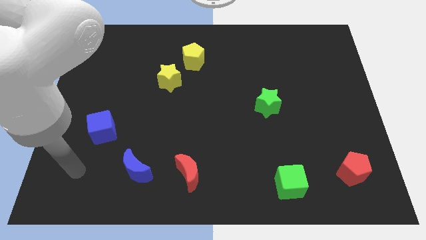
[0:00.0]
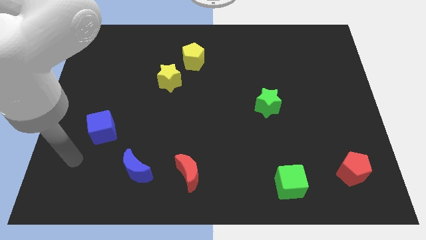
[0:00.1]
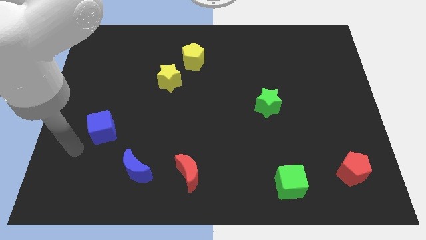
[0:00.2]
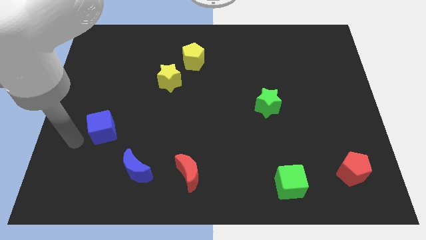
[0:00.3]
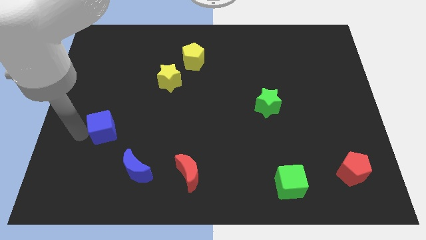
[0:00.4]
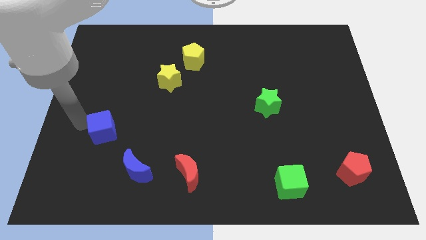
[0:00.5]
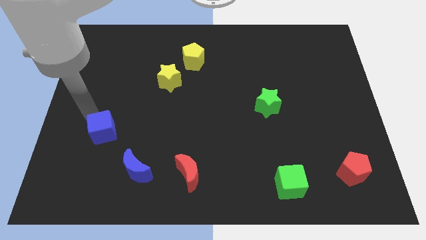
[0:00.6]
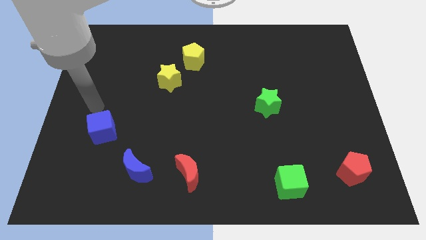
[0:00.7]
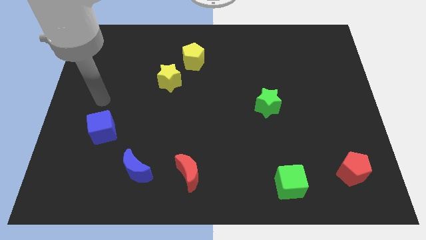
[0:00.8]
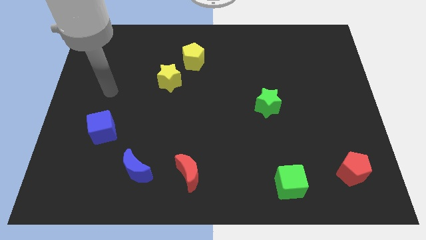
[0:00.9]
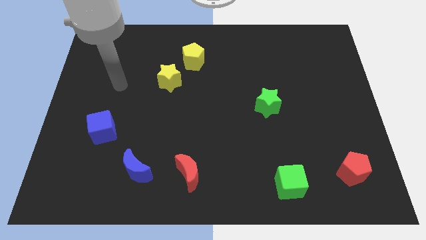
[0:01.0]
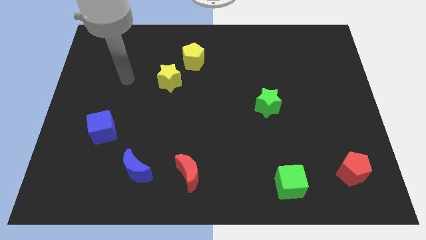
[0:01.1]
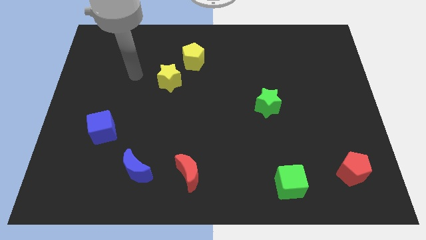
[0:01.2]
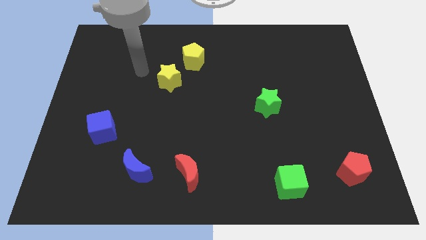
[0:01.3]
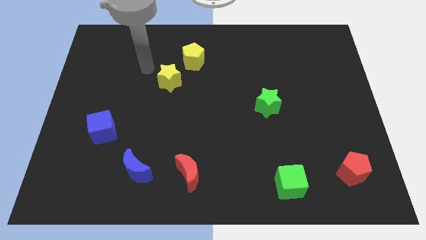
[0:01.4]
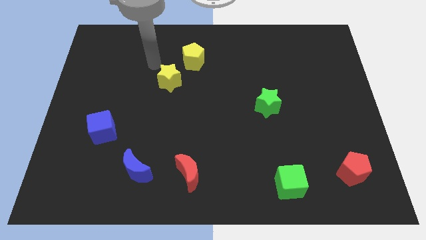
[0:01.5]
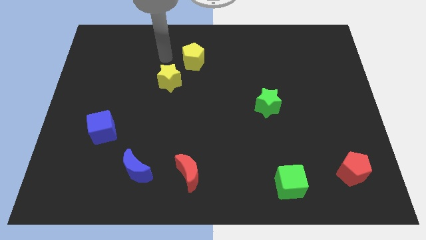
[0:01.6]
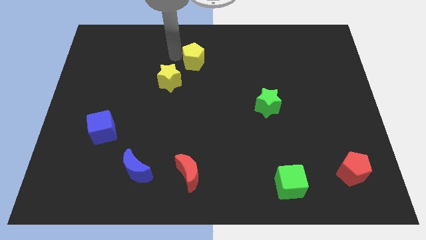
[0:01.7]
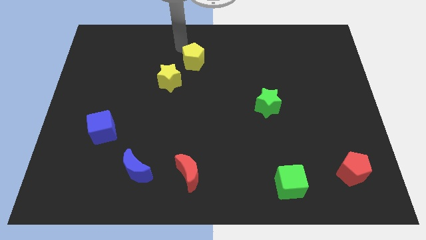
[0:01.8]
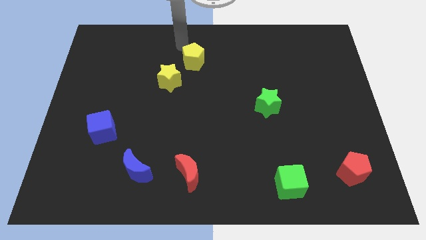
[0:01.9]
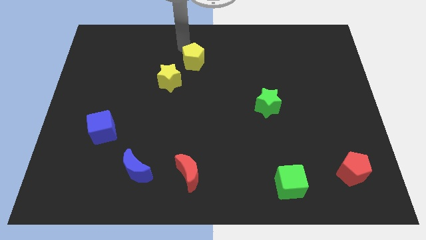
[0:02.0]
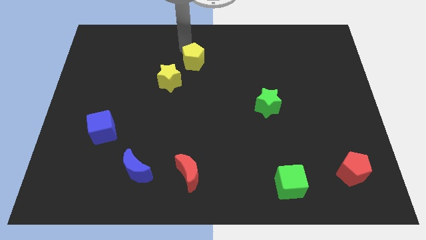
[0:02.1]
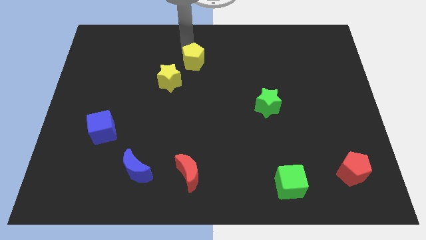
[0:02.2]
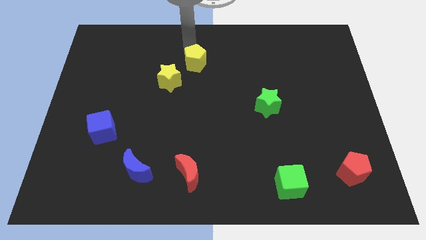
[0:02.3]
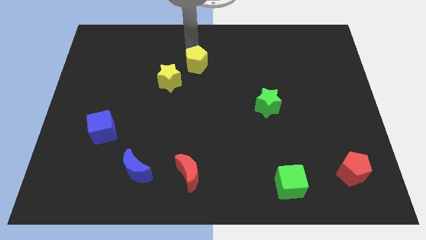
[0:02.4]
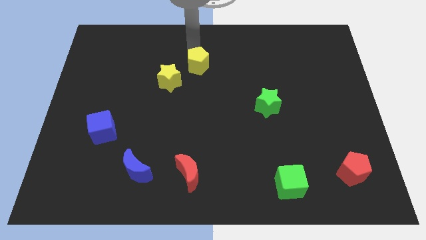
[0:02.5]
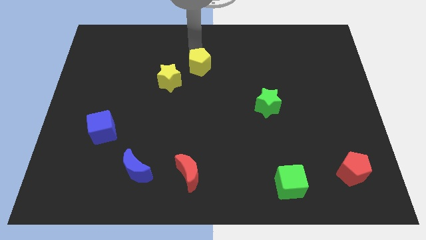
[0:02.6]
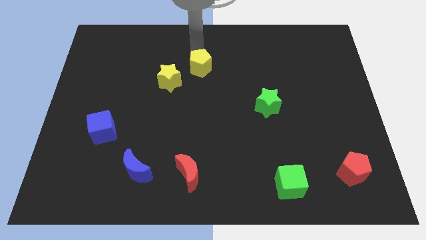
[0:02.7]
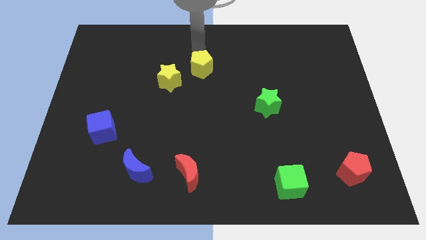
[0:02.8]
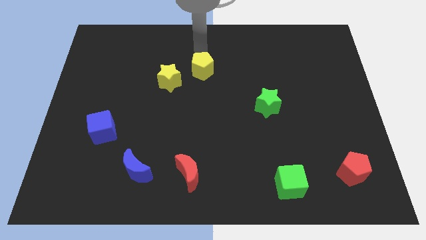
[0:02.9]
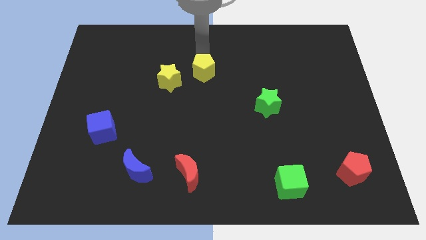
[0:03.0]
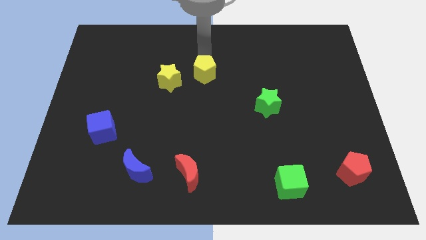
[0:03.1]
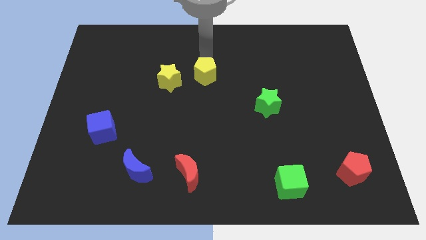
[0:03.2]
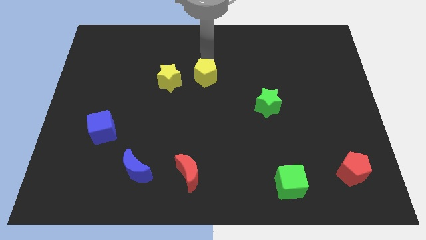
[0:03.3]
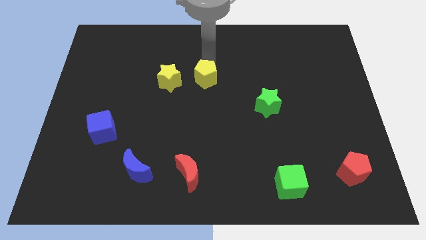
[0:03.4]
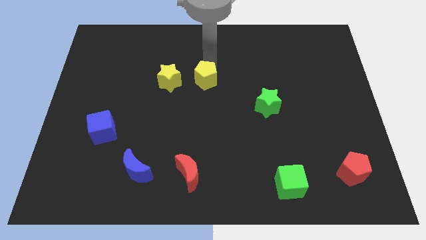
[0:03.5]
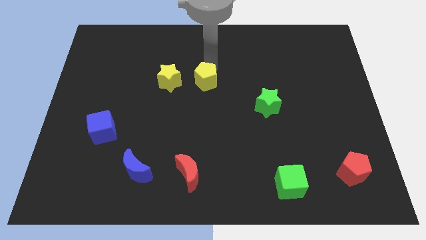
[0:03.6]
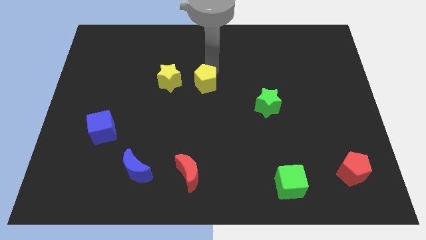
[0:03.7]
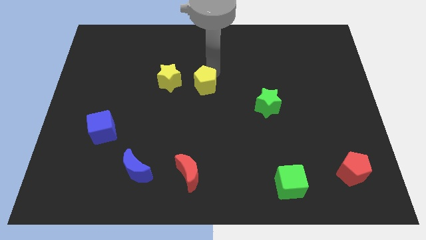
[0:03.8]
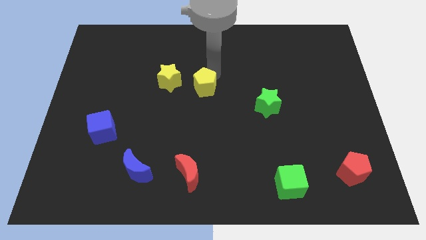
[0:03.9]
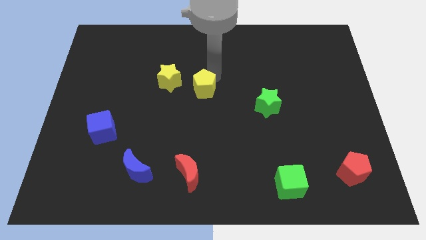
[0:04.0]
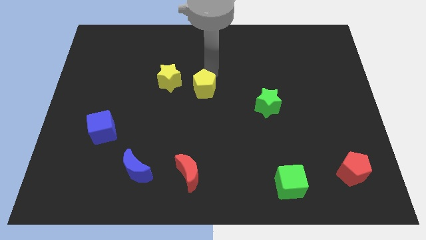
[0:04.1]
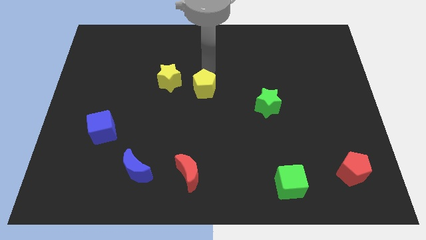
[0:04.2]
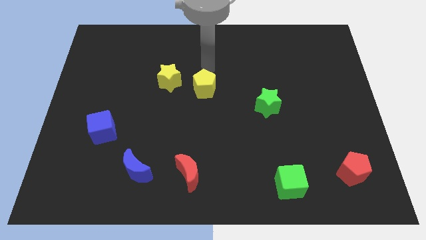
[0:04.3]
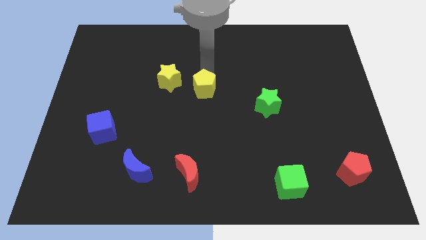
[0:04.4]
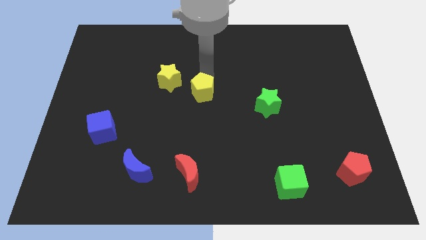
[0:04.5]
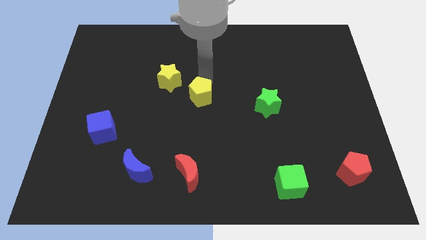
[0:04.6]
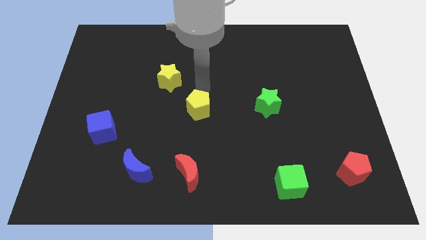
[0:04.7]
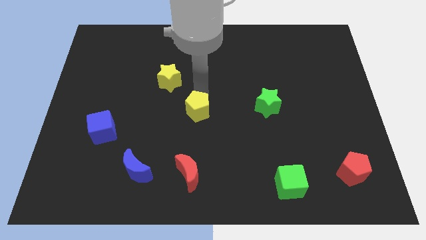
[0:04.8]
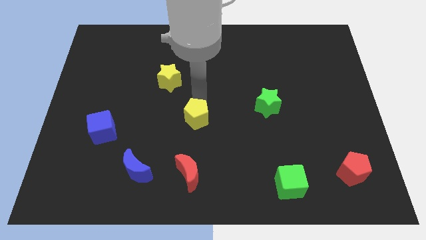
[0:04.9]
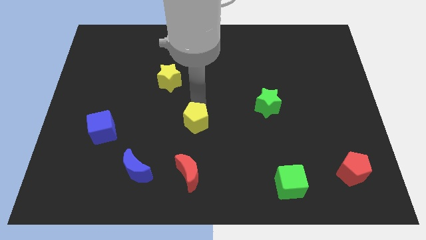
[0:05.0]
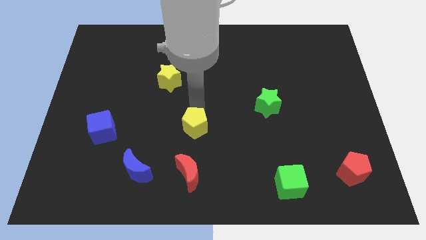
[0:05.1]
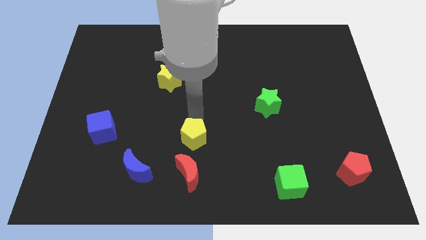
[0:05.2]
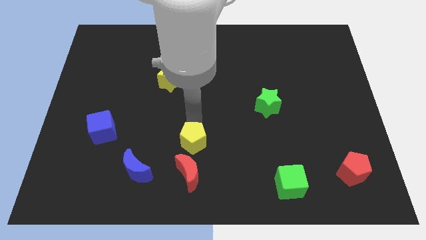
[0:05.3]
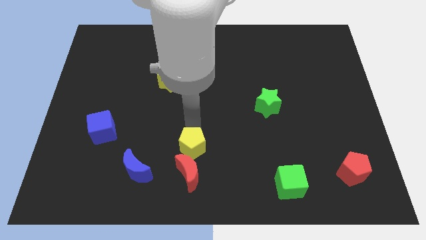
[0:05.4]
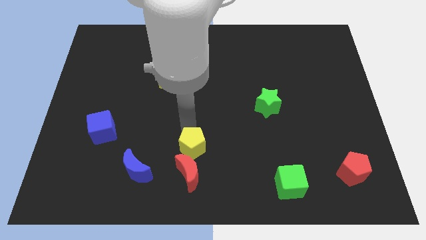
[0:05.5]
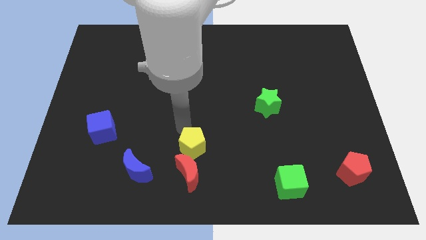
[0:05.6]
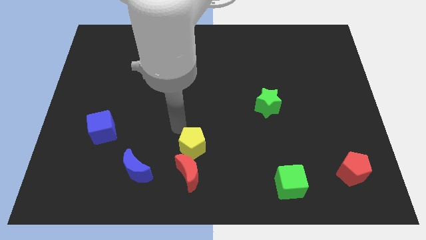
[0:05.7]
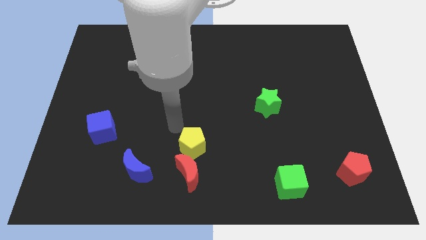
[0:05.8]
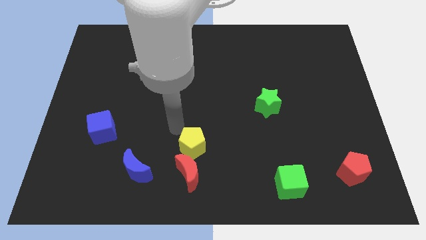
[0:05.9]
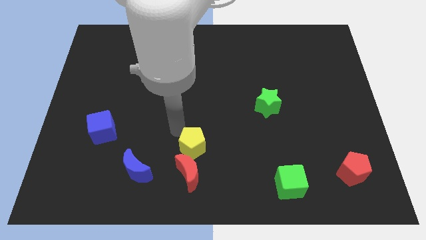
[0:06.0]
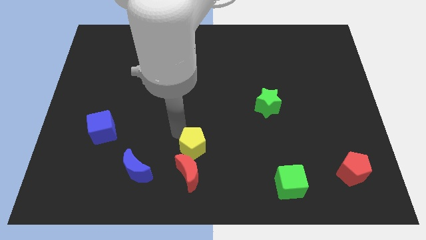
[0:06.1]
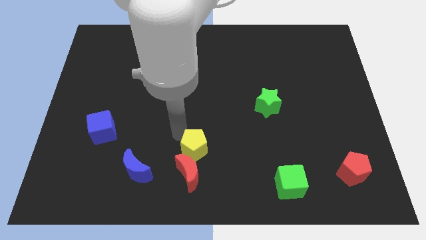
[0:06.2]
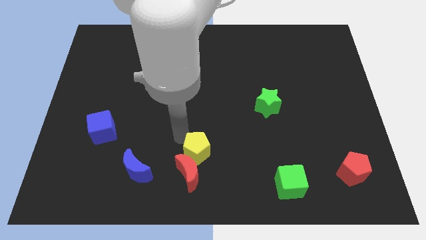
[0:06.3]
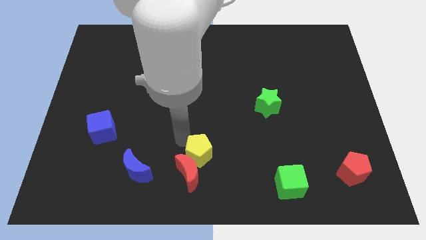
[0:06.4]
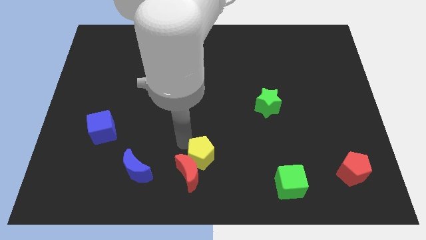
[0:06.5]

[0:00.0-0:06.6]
put the yellow pentagon to the bottom side
